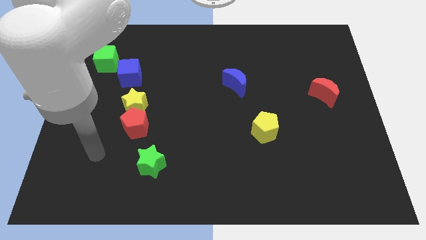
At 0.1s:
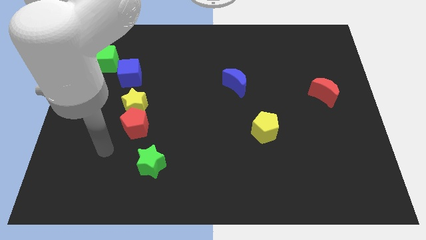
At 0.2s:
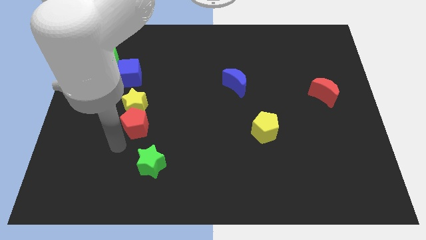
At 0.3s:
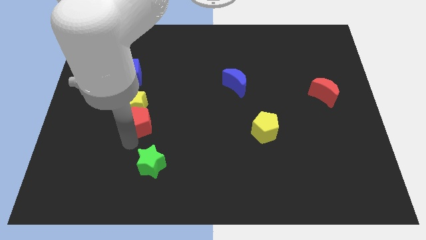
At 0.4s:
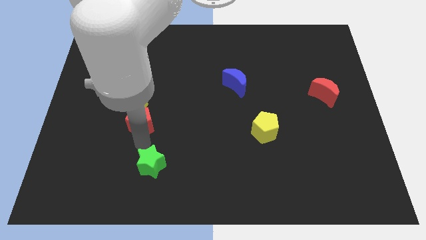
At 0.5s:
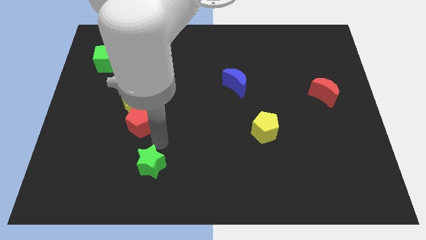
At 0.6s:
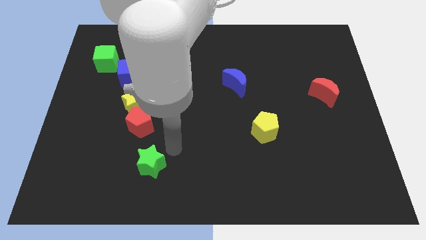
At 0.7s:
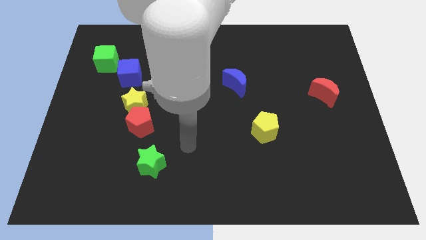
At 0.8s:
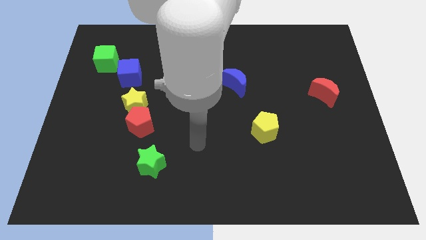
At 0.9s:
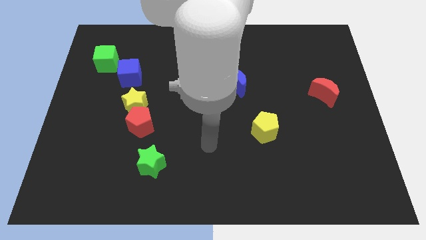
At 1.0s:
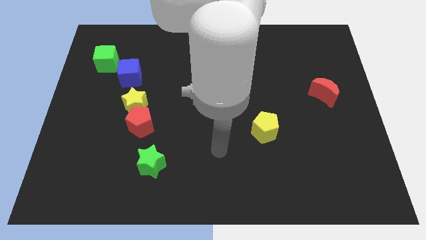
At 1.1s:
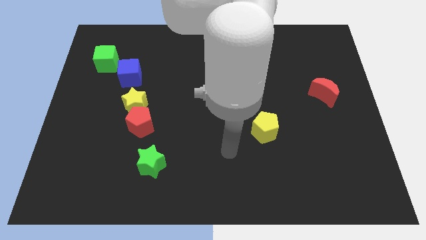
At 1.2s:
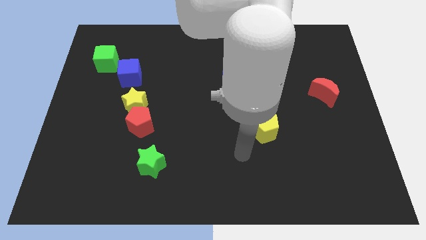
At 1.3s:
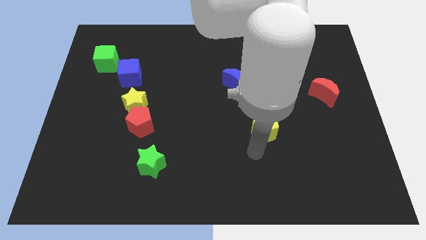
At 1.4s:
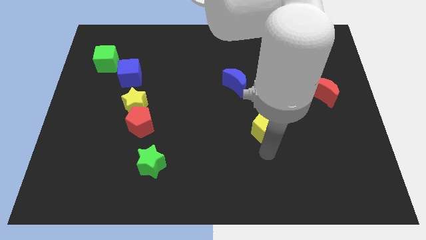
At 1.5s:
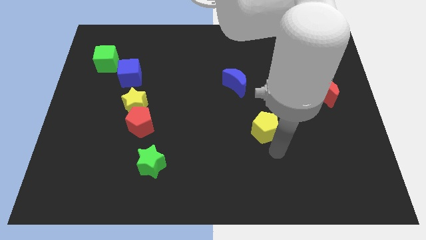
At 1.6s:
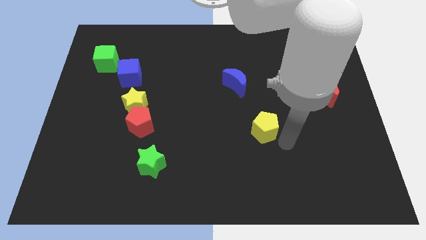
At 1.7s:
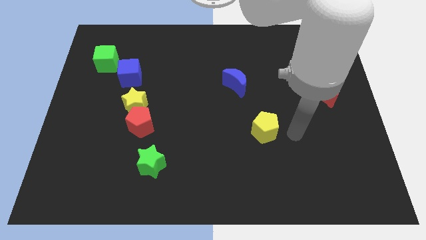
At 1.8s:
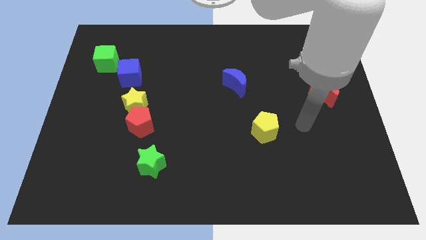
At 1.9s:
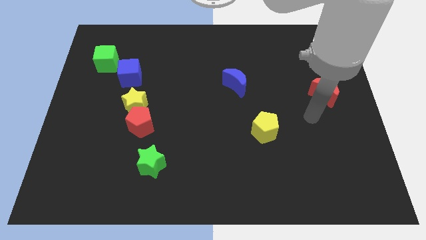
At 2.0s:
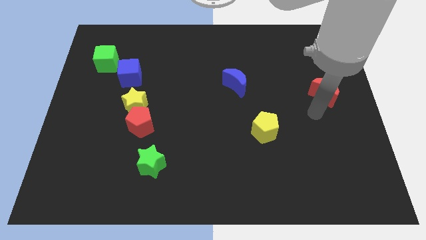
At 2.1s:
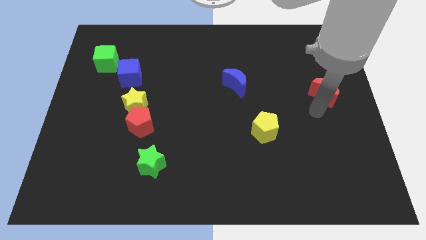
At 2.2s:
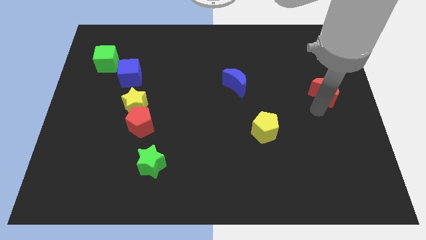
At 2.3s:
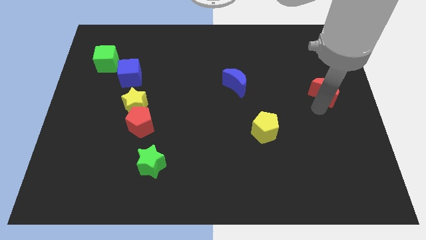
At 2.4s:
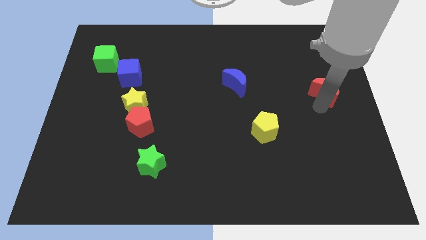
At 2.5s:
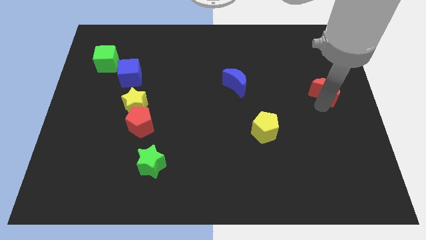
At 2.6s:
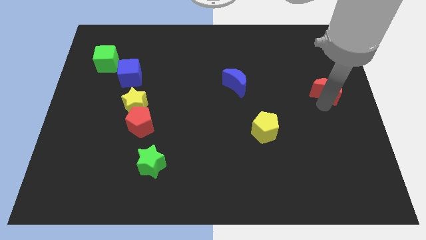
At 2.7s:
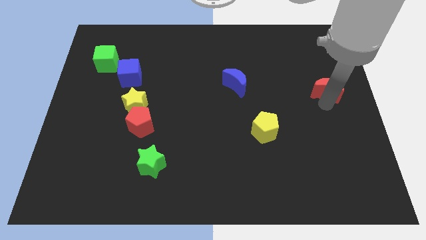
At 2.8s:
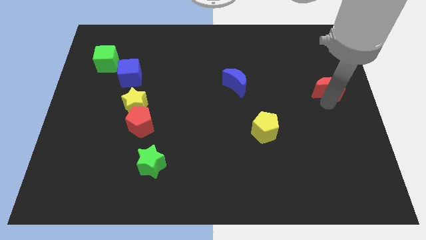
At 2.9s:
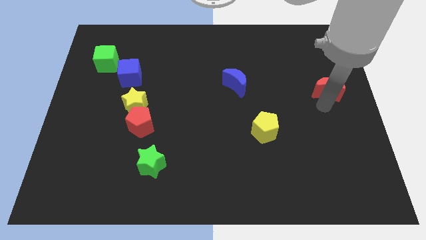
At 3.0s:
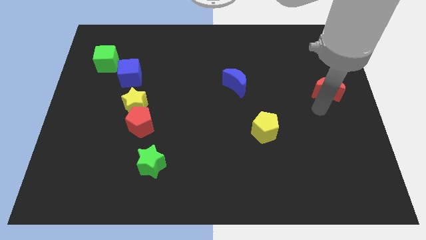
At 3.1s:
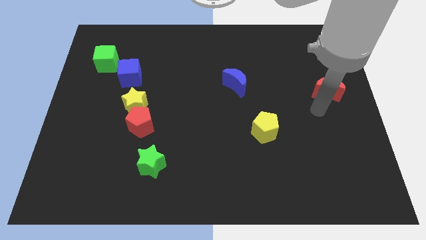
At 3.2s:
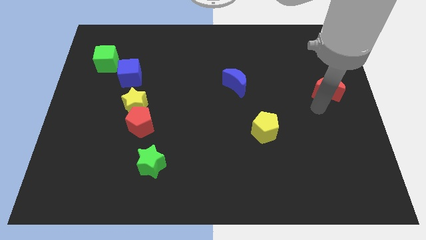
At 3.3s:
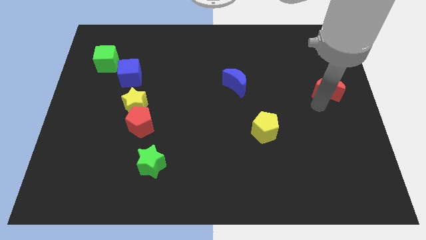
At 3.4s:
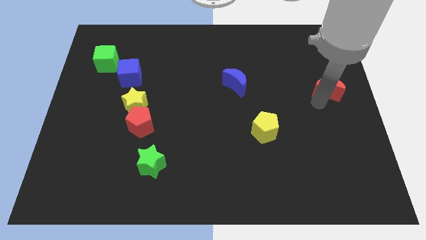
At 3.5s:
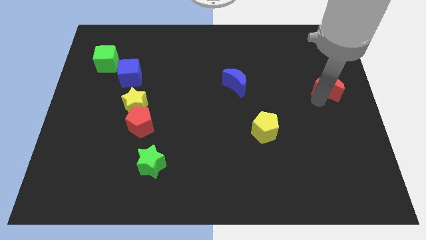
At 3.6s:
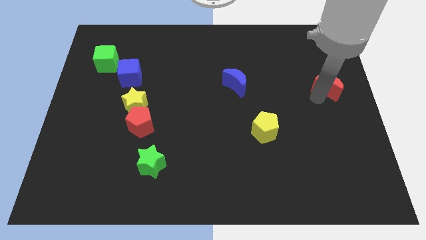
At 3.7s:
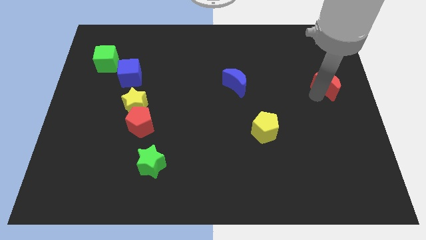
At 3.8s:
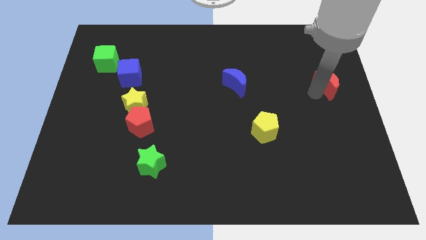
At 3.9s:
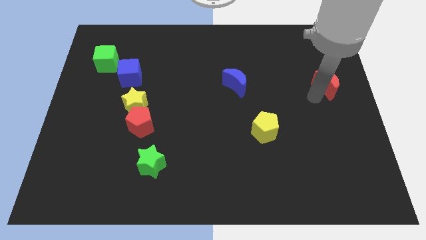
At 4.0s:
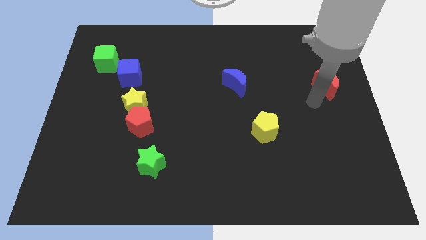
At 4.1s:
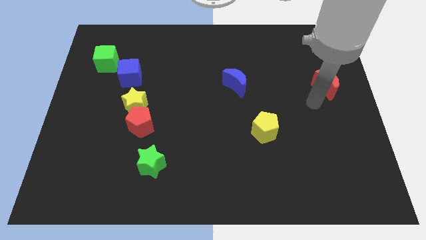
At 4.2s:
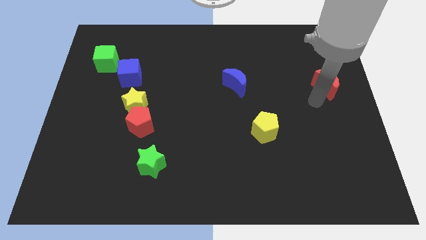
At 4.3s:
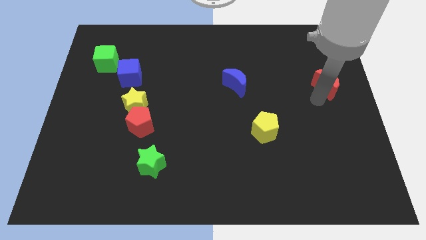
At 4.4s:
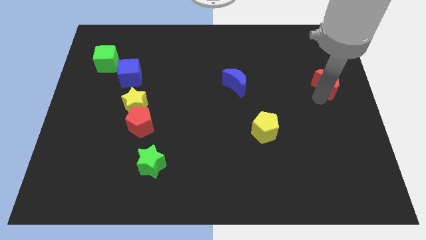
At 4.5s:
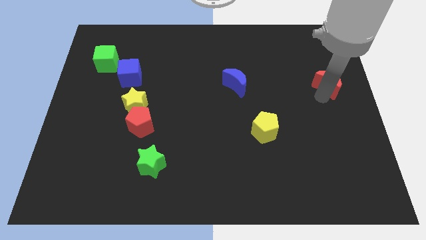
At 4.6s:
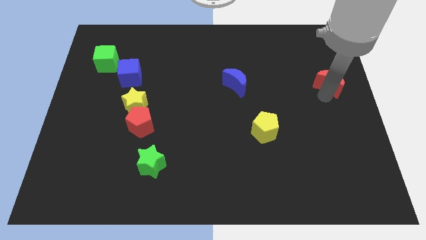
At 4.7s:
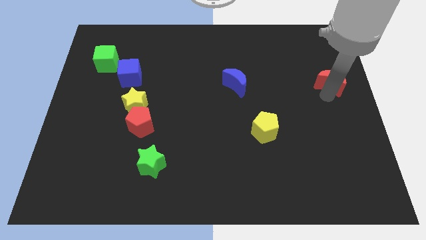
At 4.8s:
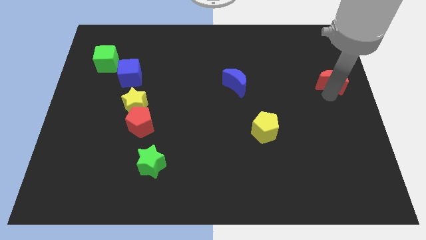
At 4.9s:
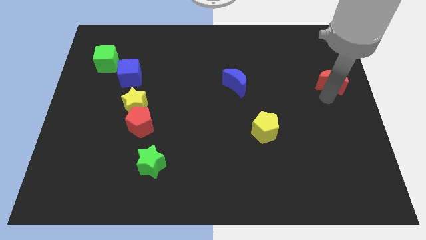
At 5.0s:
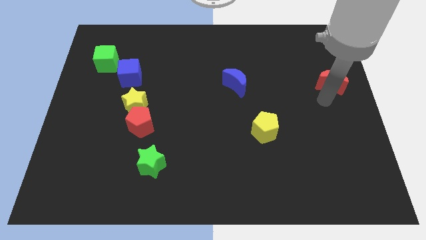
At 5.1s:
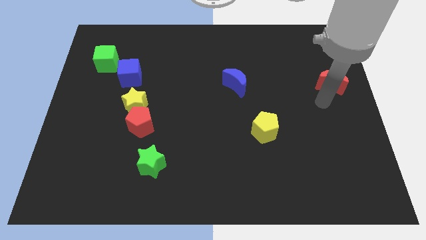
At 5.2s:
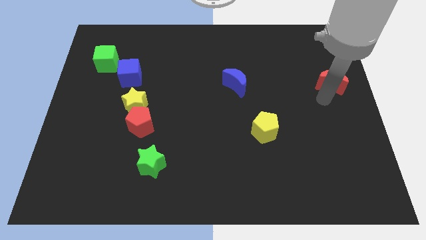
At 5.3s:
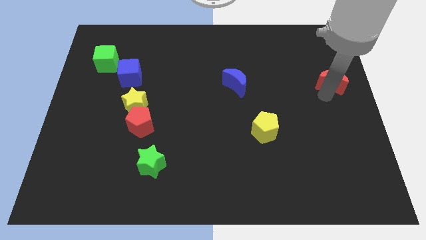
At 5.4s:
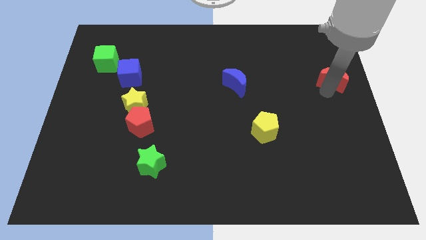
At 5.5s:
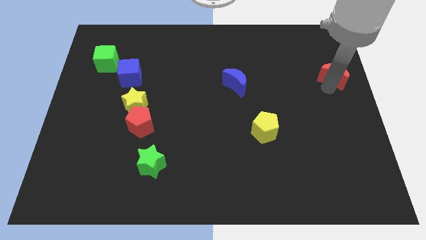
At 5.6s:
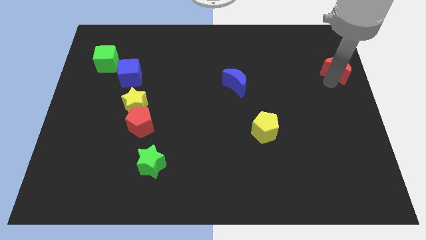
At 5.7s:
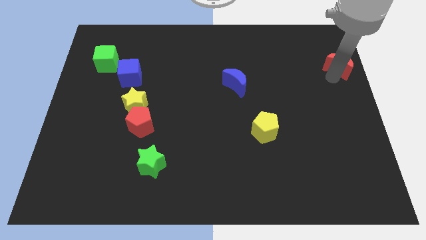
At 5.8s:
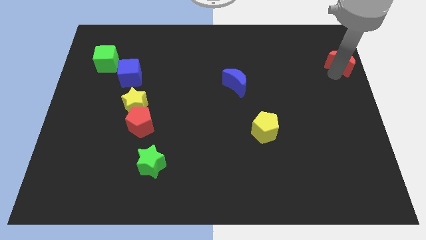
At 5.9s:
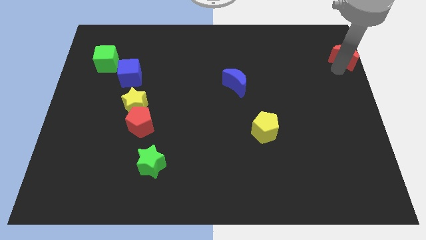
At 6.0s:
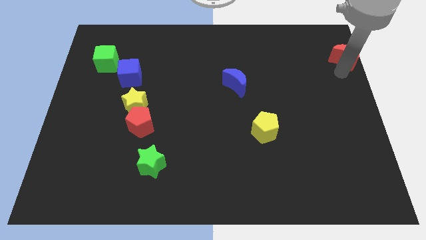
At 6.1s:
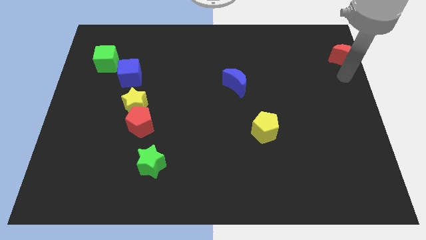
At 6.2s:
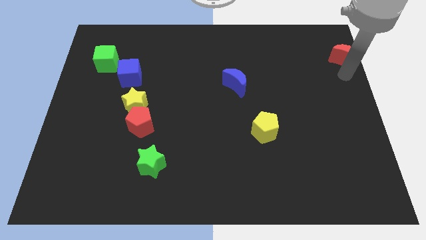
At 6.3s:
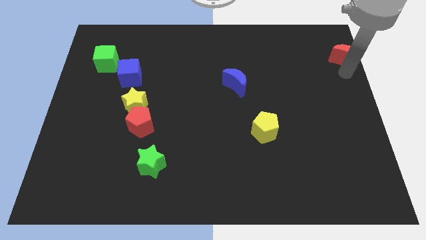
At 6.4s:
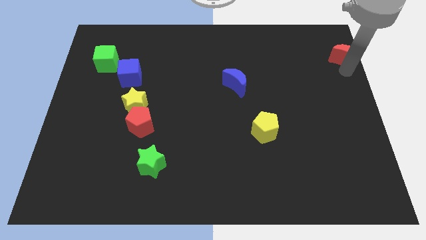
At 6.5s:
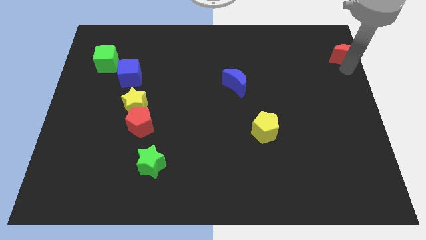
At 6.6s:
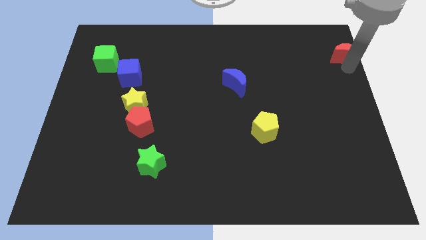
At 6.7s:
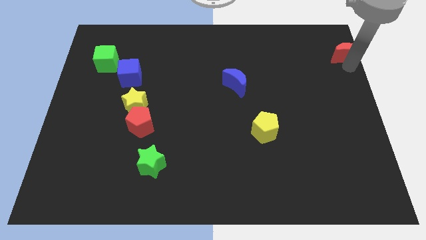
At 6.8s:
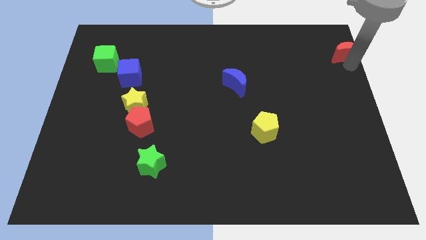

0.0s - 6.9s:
move the red moon to the top right of the board
